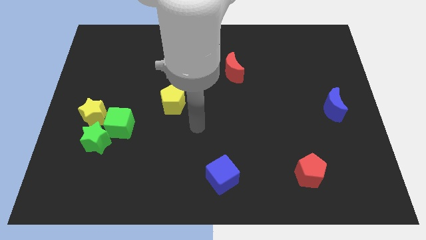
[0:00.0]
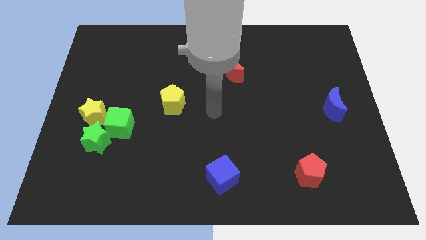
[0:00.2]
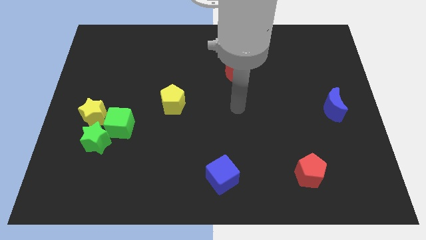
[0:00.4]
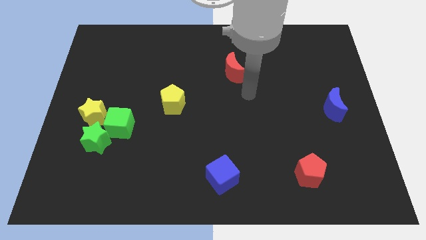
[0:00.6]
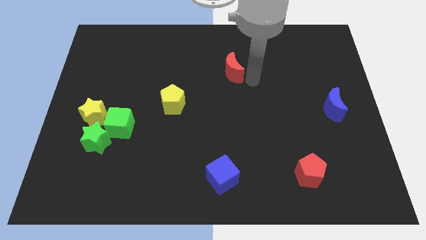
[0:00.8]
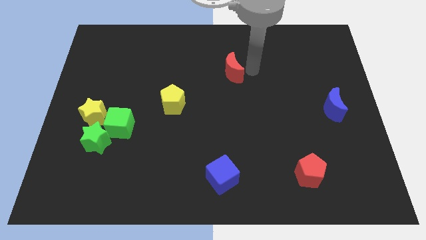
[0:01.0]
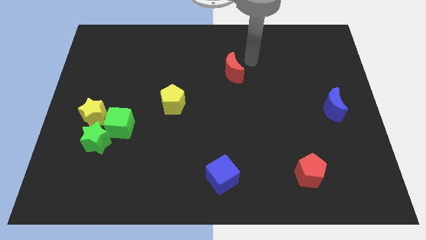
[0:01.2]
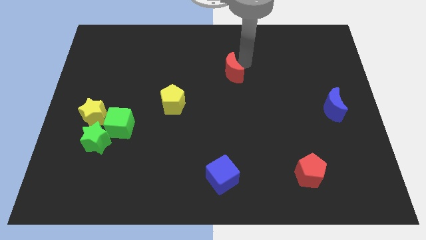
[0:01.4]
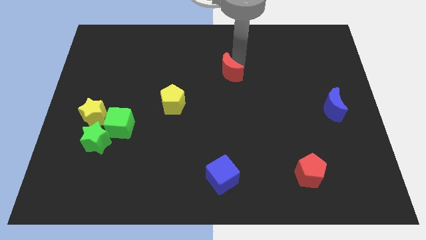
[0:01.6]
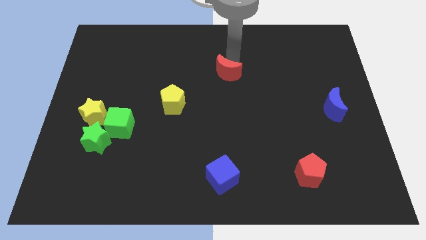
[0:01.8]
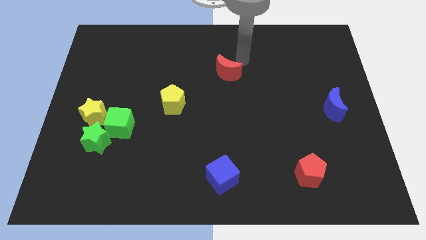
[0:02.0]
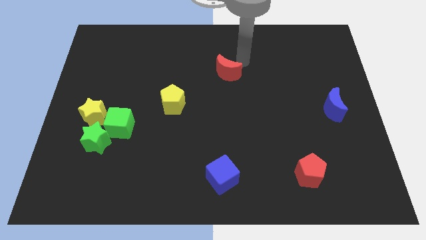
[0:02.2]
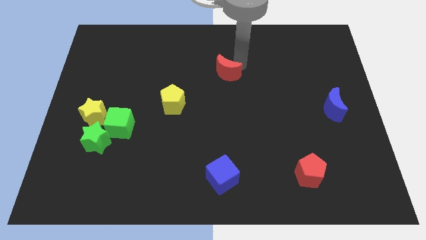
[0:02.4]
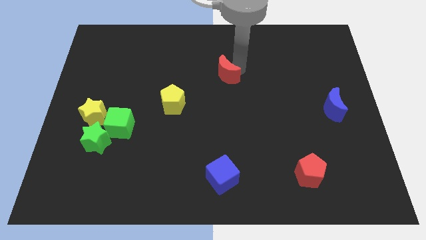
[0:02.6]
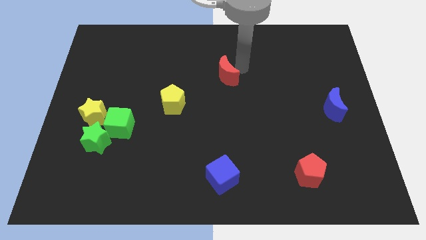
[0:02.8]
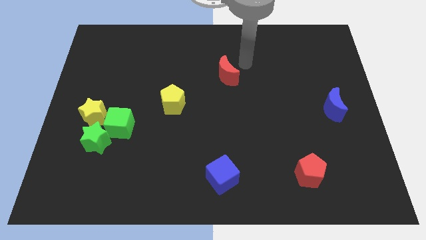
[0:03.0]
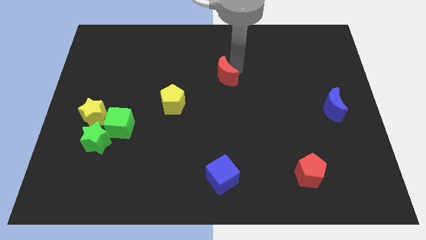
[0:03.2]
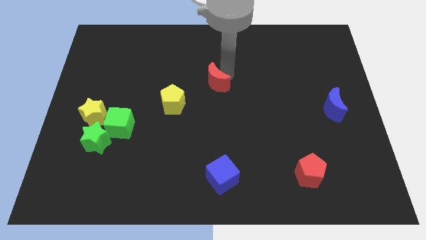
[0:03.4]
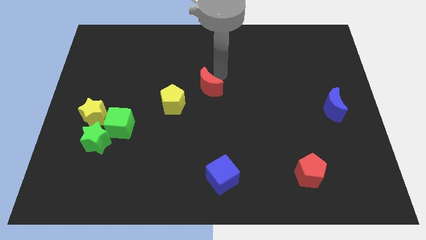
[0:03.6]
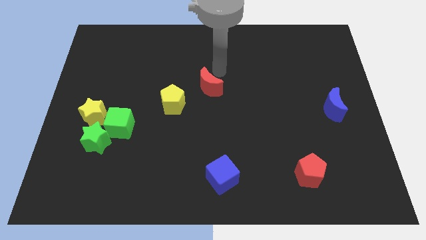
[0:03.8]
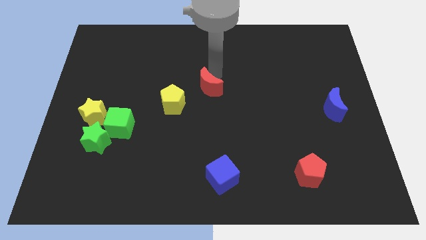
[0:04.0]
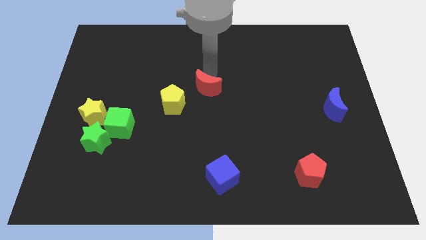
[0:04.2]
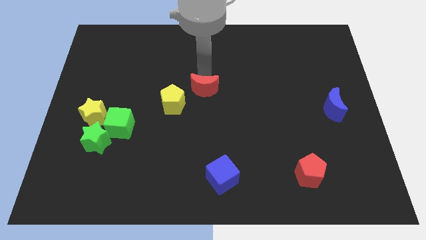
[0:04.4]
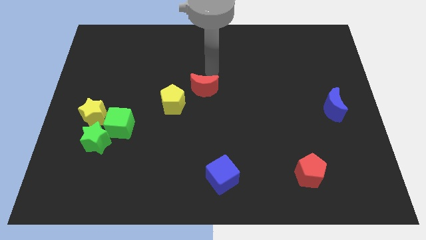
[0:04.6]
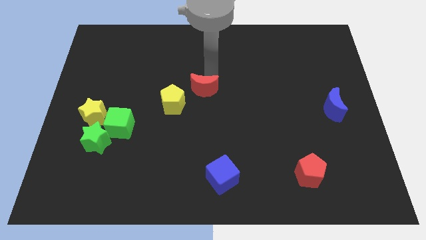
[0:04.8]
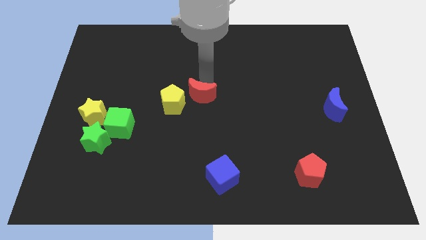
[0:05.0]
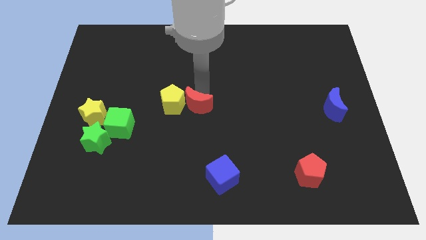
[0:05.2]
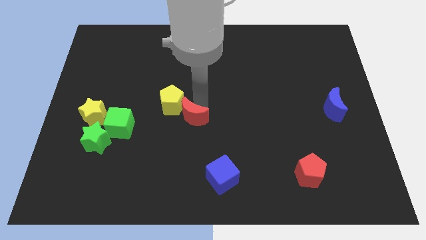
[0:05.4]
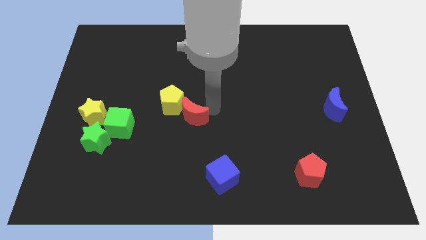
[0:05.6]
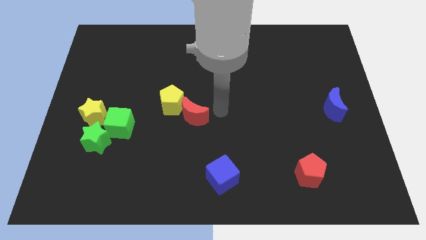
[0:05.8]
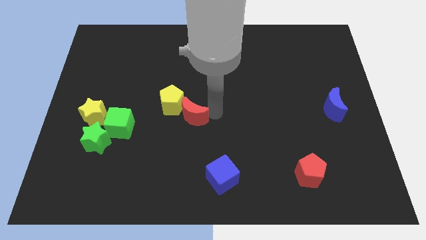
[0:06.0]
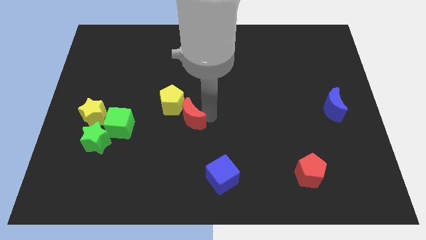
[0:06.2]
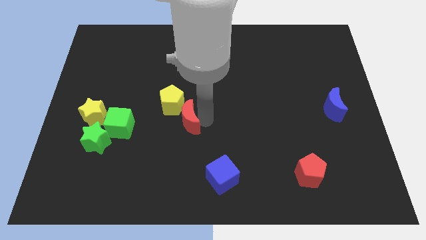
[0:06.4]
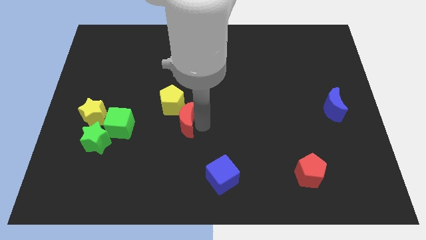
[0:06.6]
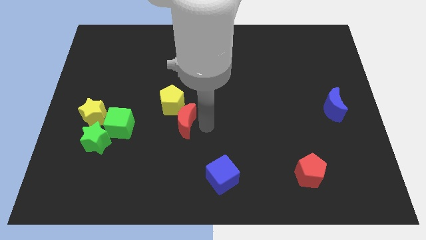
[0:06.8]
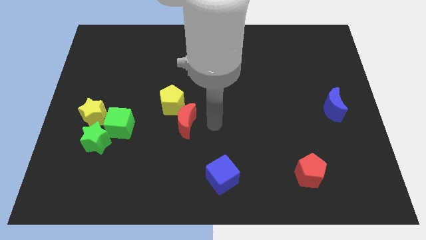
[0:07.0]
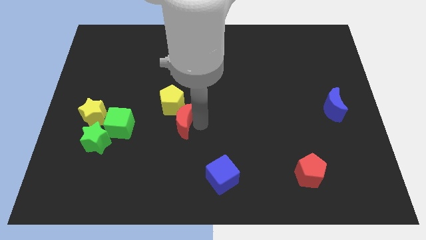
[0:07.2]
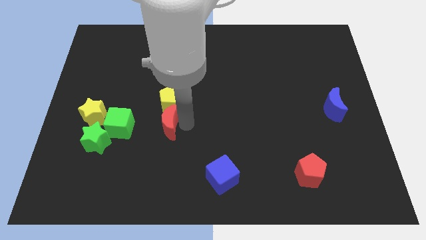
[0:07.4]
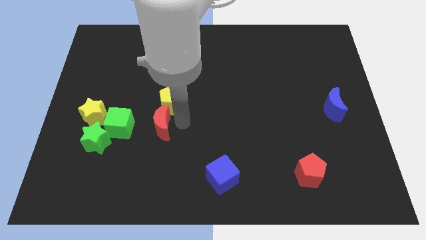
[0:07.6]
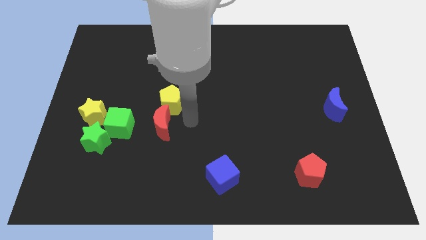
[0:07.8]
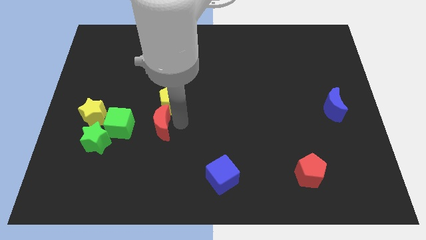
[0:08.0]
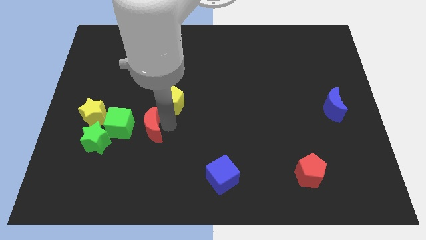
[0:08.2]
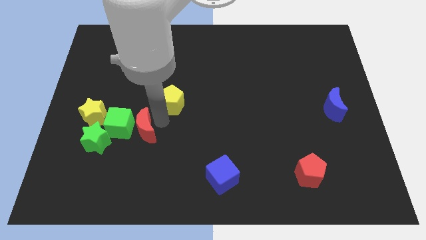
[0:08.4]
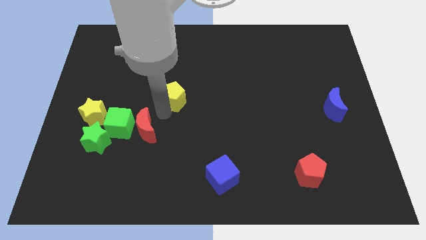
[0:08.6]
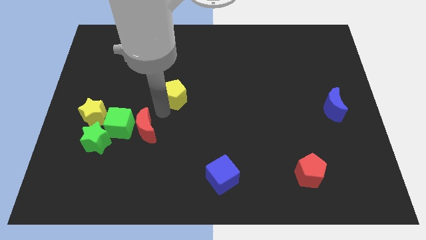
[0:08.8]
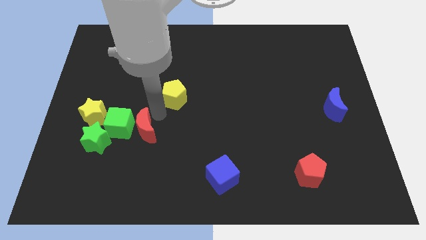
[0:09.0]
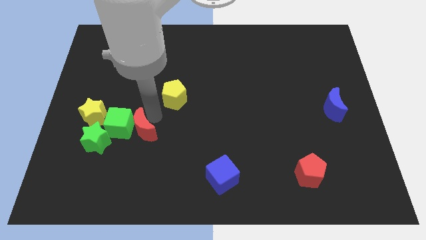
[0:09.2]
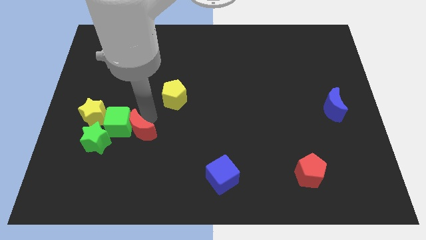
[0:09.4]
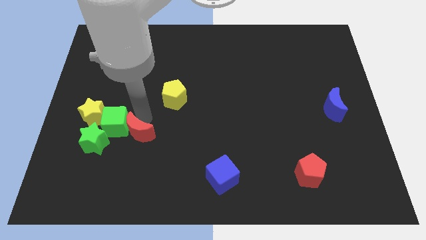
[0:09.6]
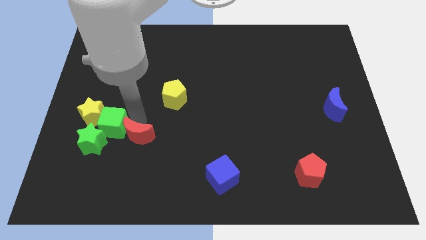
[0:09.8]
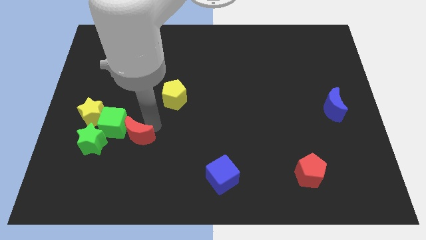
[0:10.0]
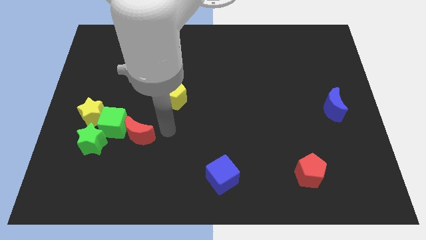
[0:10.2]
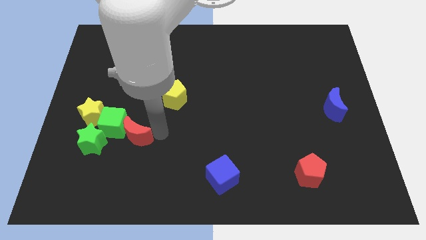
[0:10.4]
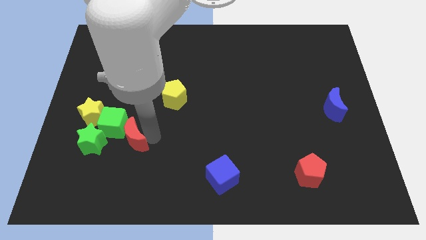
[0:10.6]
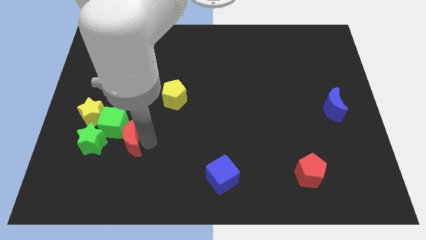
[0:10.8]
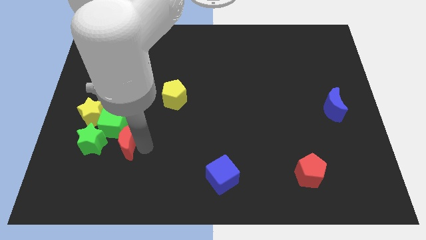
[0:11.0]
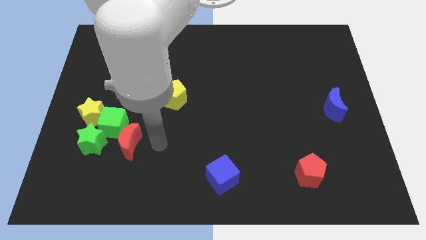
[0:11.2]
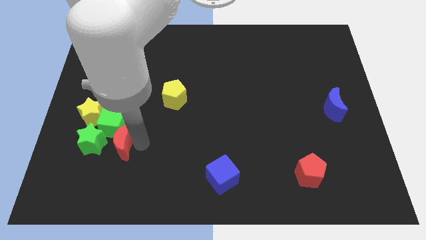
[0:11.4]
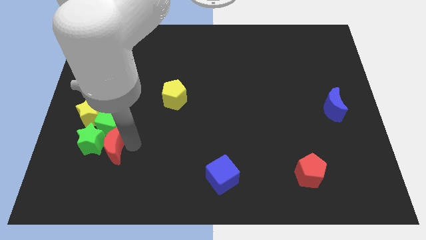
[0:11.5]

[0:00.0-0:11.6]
slide the red moon next to the green star

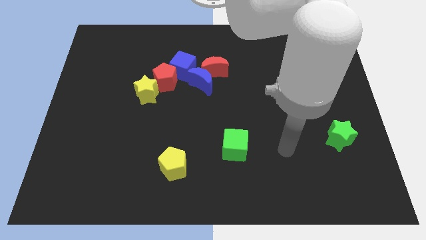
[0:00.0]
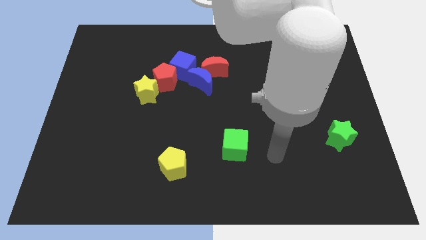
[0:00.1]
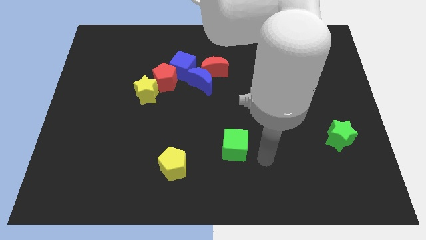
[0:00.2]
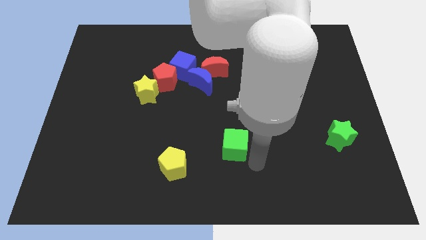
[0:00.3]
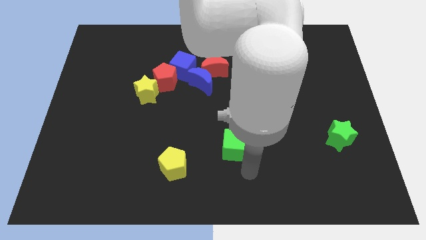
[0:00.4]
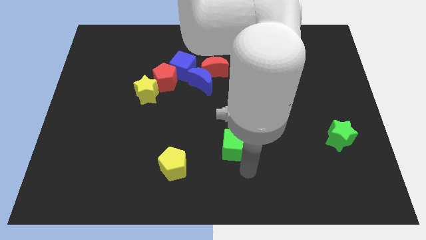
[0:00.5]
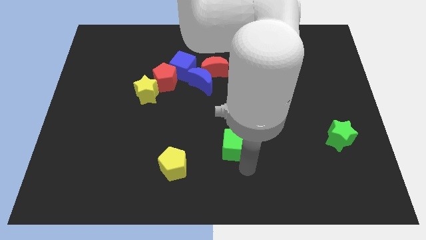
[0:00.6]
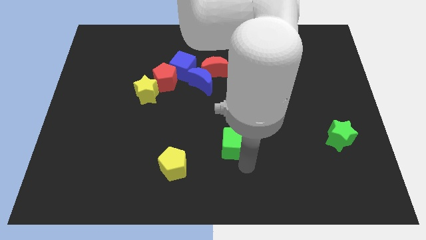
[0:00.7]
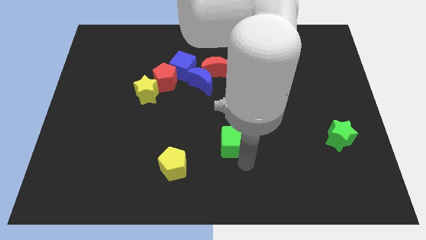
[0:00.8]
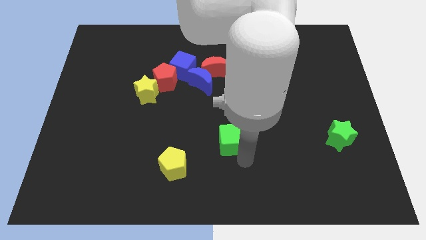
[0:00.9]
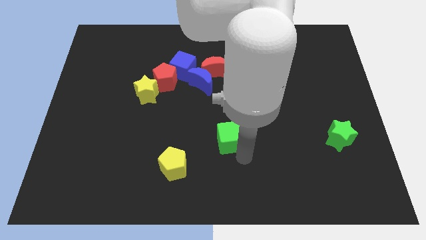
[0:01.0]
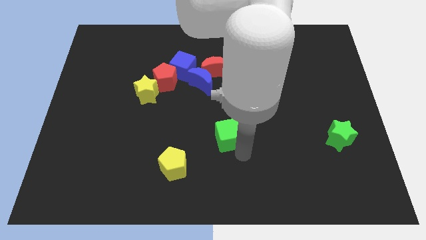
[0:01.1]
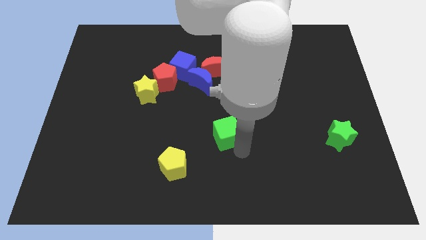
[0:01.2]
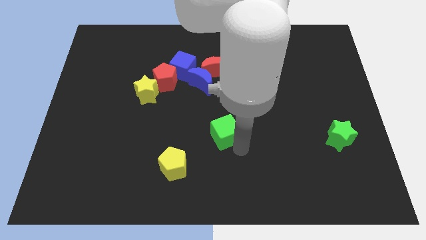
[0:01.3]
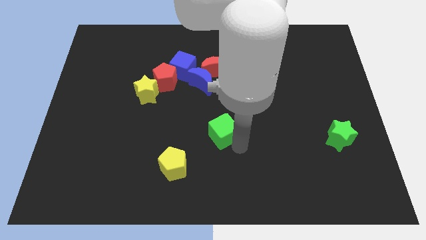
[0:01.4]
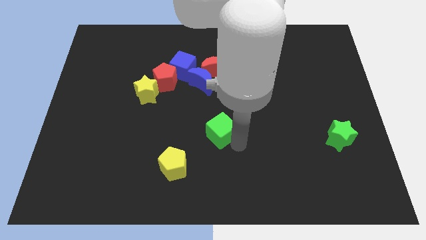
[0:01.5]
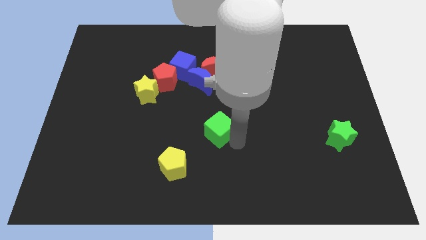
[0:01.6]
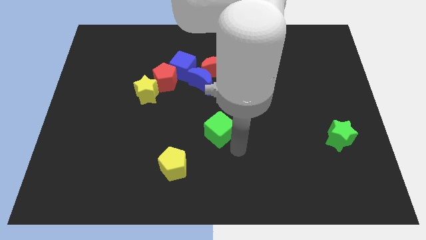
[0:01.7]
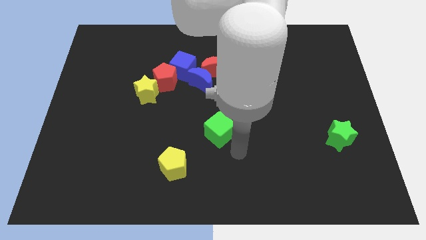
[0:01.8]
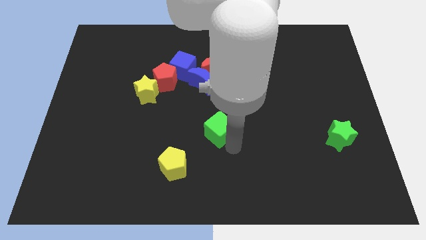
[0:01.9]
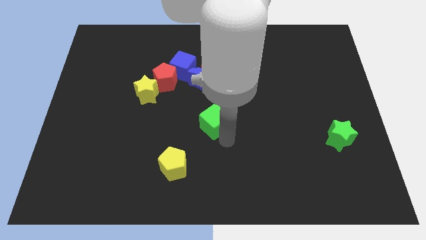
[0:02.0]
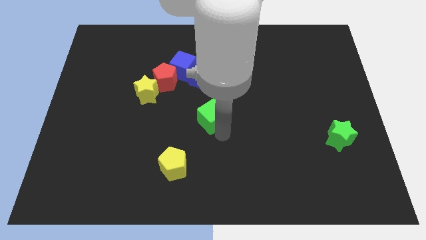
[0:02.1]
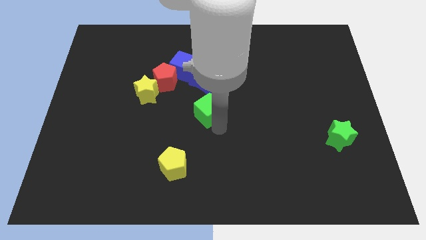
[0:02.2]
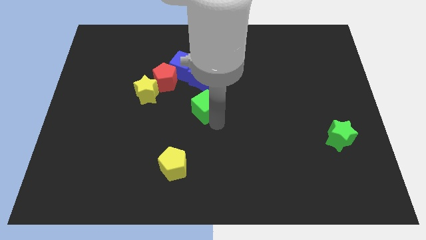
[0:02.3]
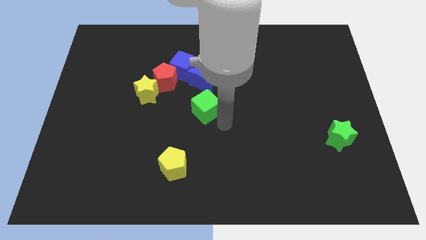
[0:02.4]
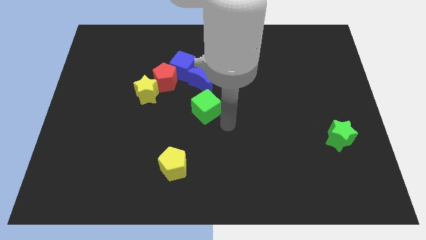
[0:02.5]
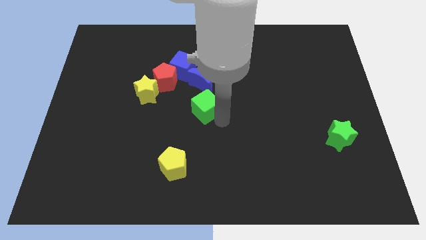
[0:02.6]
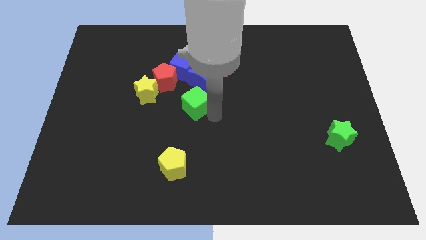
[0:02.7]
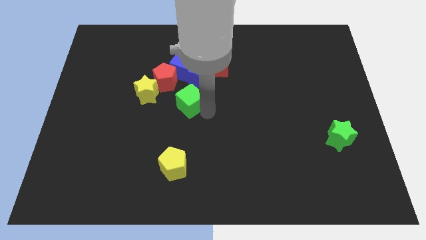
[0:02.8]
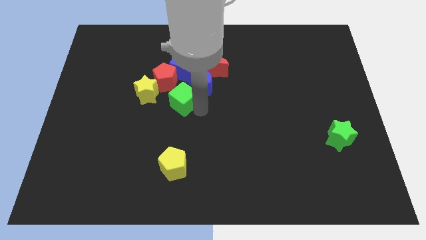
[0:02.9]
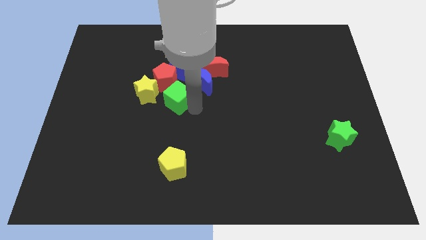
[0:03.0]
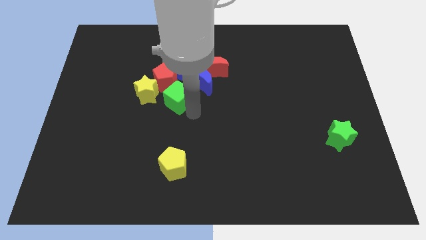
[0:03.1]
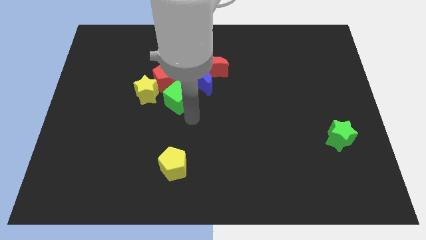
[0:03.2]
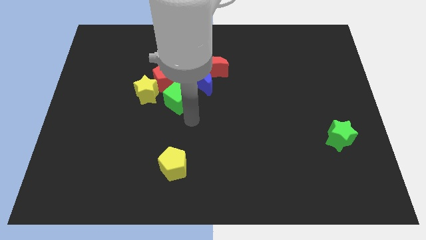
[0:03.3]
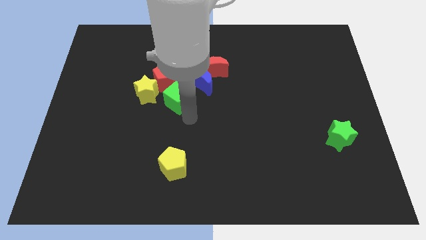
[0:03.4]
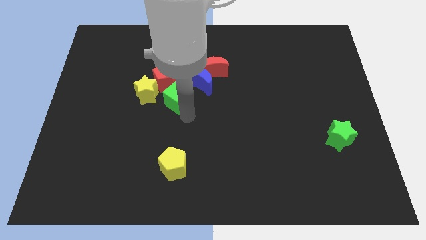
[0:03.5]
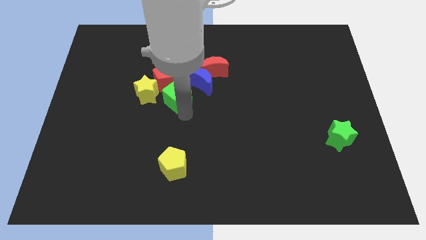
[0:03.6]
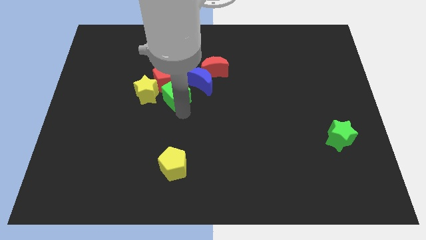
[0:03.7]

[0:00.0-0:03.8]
move the green cube to the red pentagon
